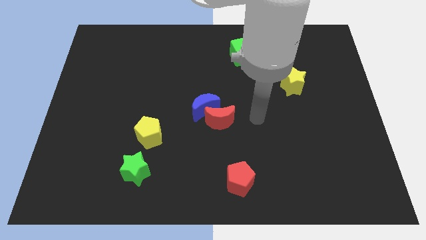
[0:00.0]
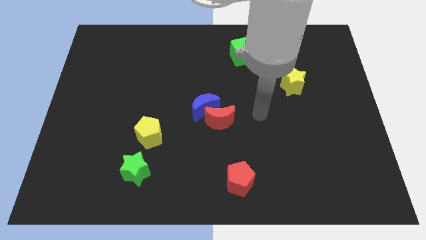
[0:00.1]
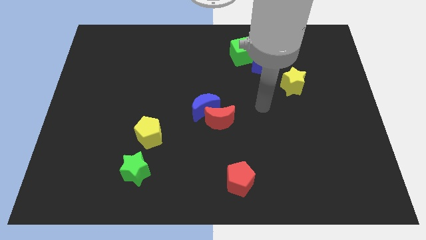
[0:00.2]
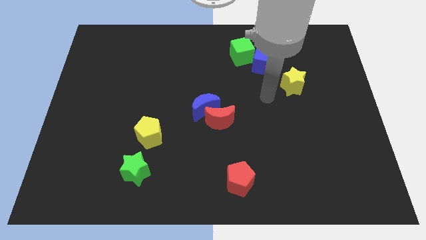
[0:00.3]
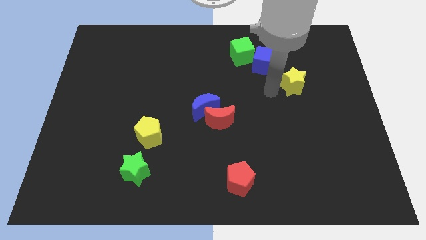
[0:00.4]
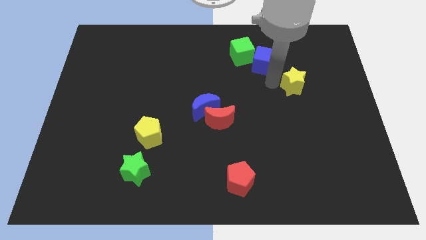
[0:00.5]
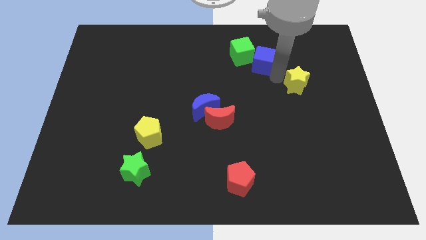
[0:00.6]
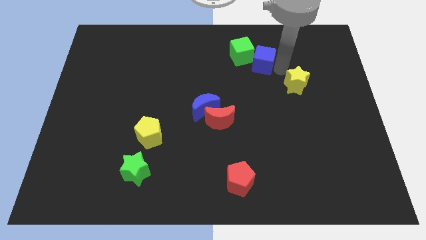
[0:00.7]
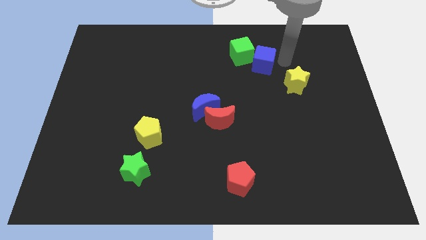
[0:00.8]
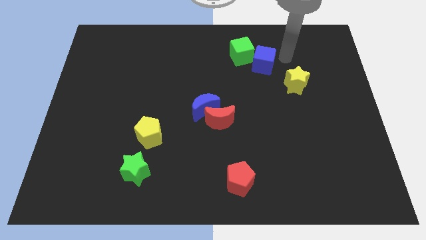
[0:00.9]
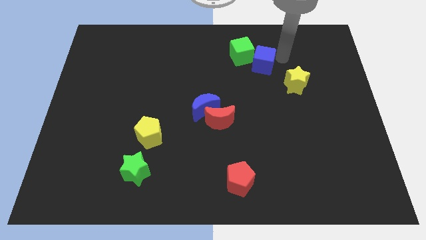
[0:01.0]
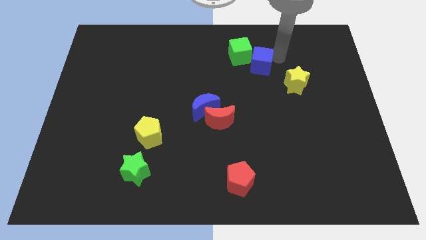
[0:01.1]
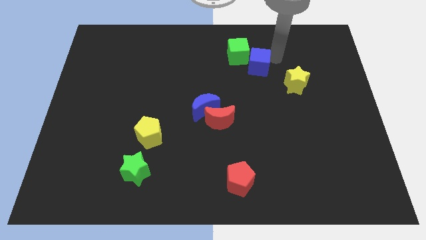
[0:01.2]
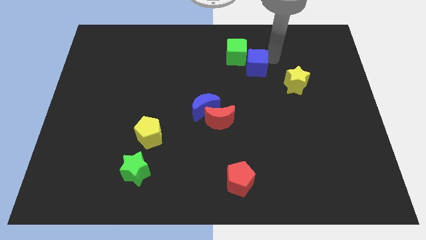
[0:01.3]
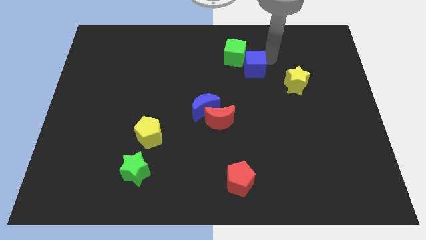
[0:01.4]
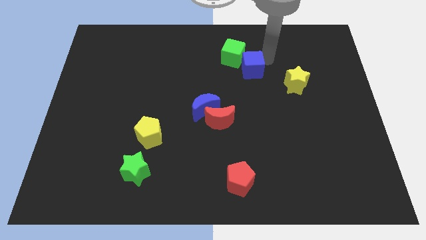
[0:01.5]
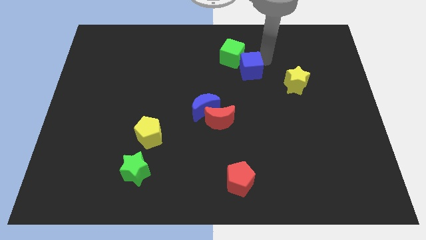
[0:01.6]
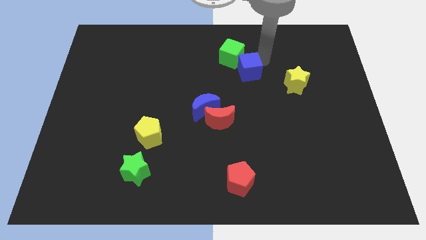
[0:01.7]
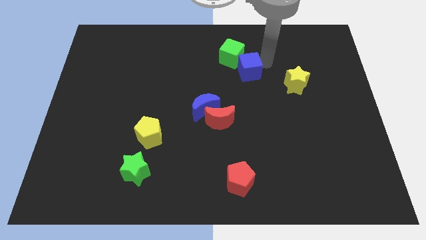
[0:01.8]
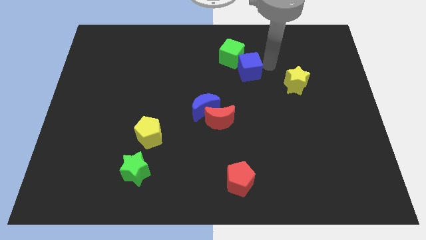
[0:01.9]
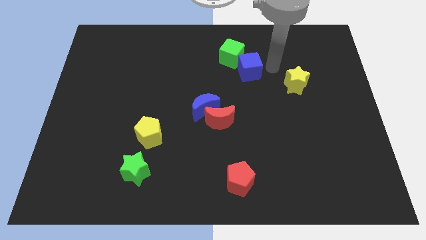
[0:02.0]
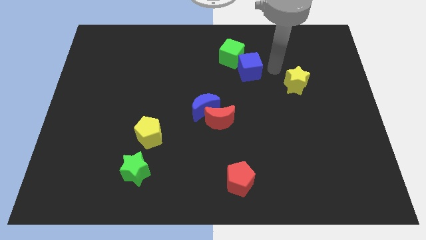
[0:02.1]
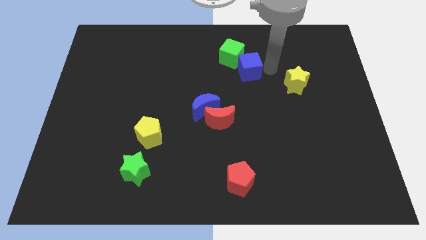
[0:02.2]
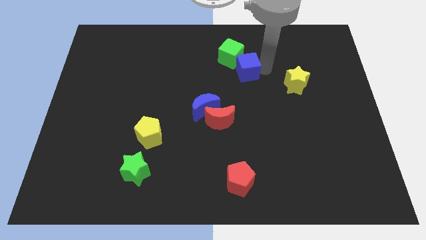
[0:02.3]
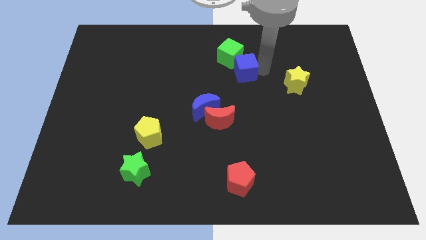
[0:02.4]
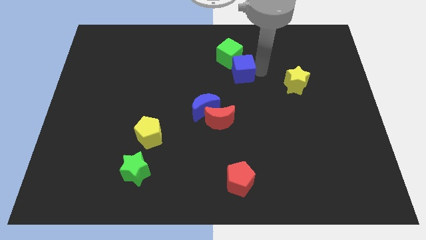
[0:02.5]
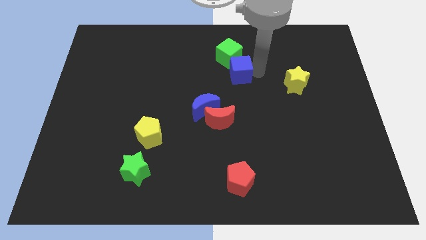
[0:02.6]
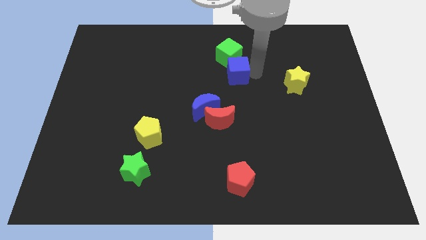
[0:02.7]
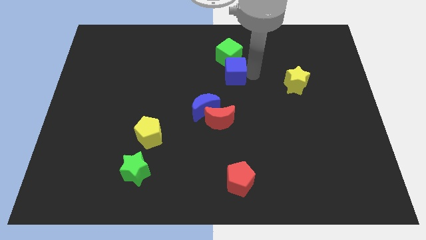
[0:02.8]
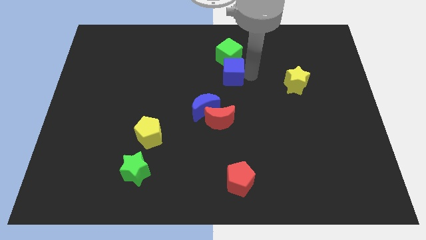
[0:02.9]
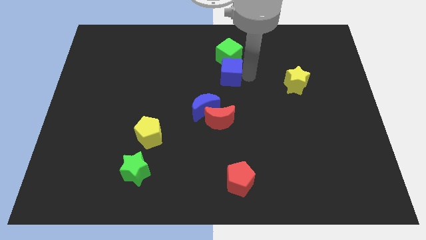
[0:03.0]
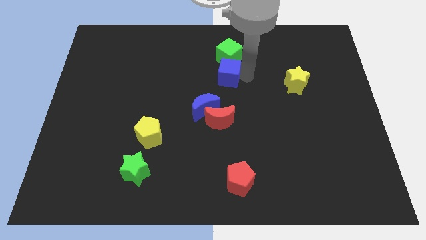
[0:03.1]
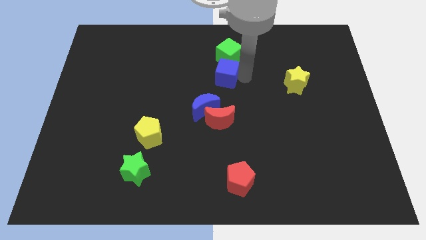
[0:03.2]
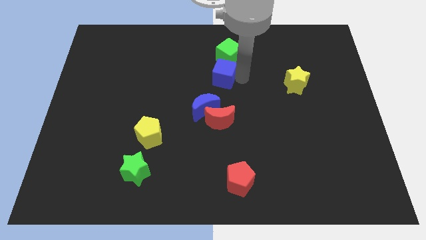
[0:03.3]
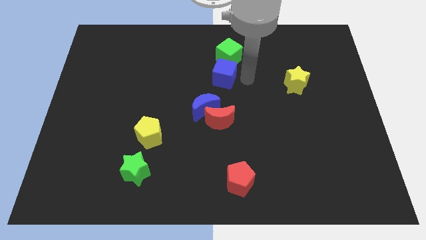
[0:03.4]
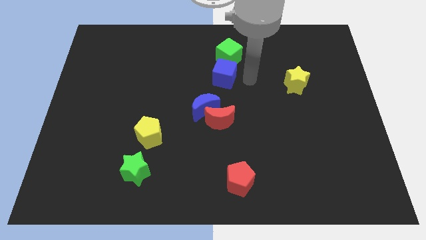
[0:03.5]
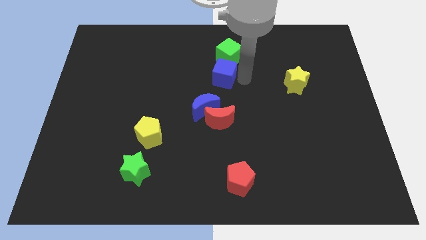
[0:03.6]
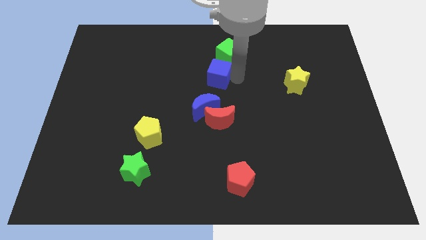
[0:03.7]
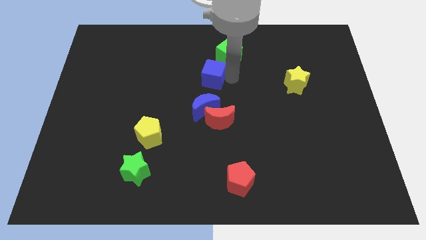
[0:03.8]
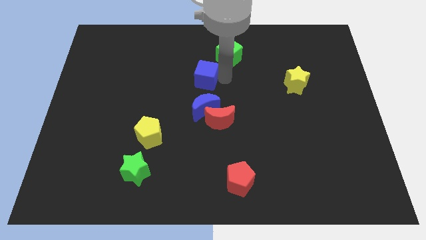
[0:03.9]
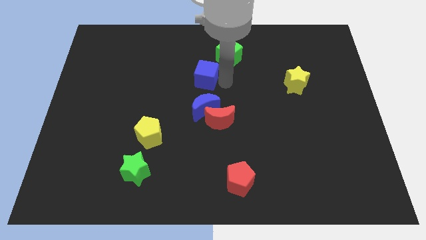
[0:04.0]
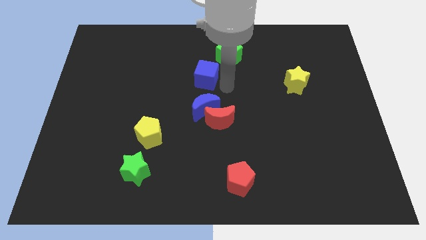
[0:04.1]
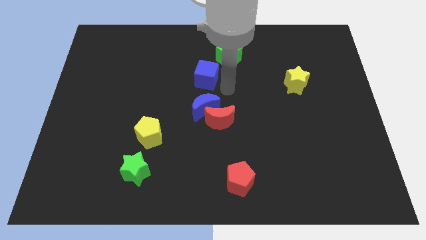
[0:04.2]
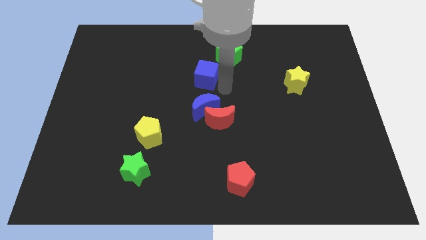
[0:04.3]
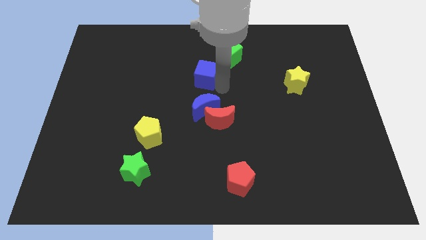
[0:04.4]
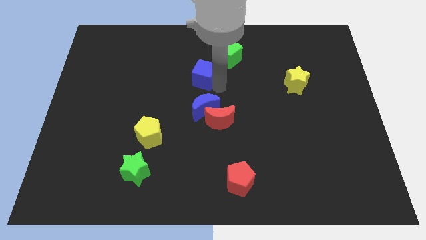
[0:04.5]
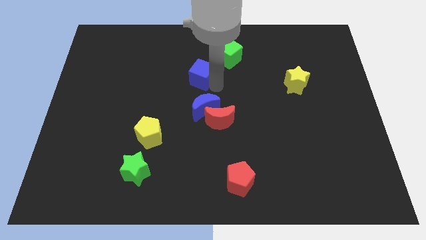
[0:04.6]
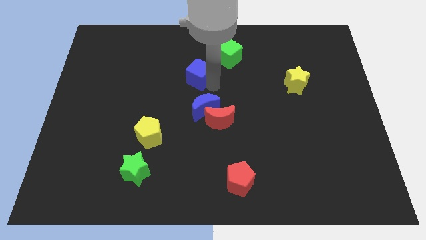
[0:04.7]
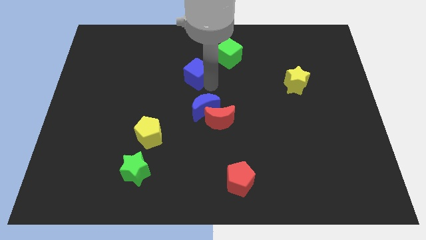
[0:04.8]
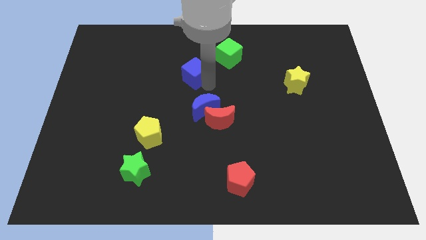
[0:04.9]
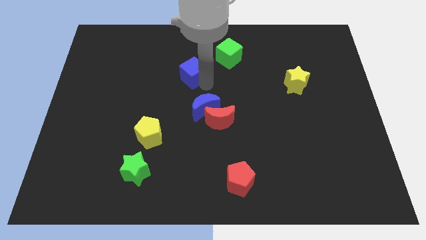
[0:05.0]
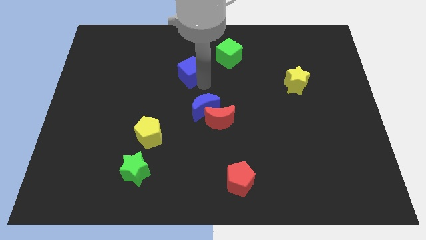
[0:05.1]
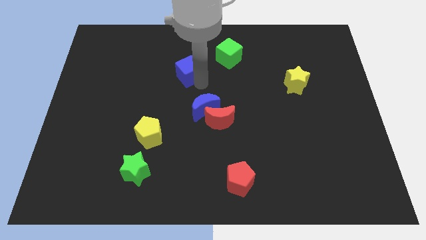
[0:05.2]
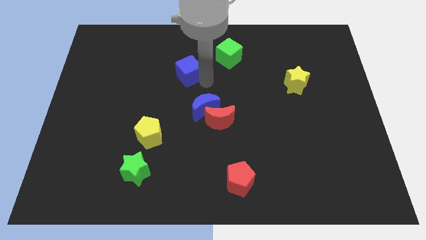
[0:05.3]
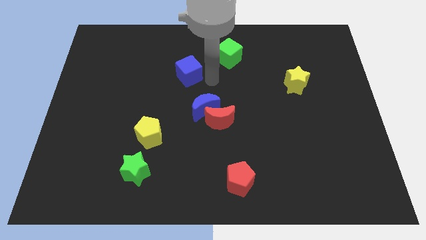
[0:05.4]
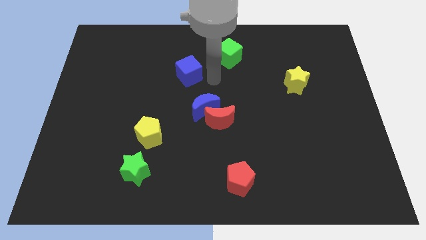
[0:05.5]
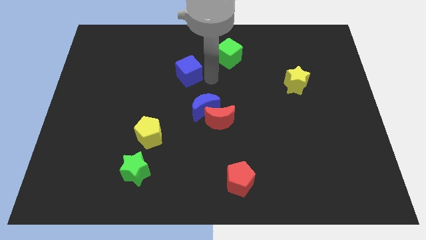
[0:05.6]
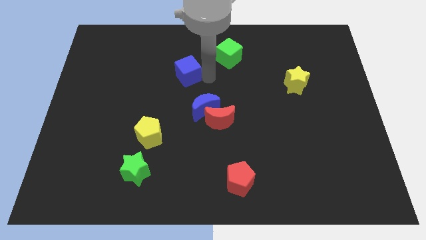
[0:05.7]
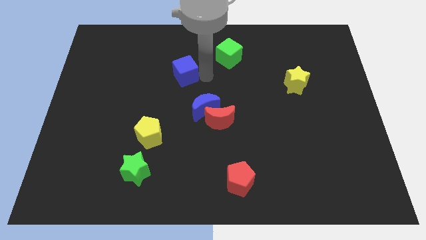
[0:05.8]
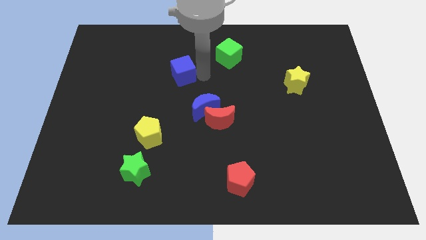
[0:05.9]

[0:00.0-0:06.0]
move the blue cube to the left

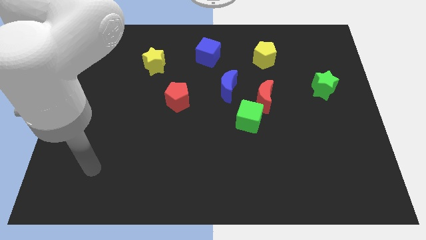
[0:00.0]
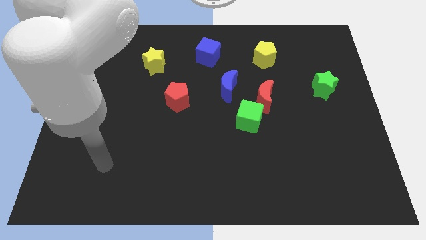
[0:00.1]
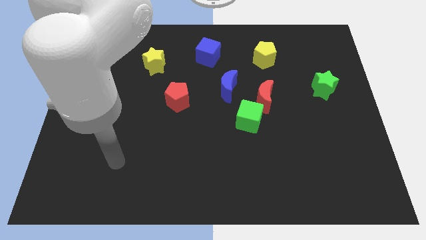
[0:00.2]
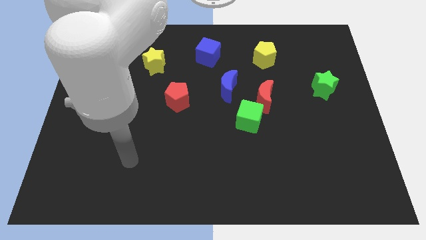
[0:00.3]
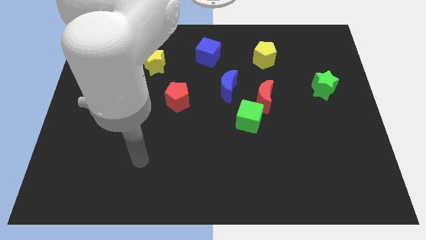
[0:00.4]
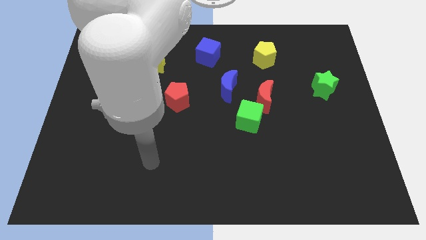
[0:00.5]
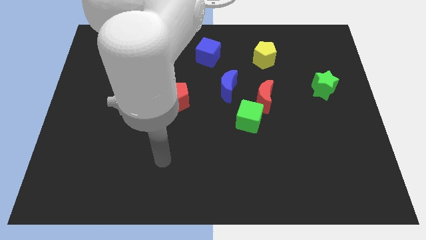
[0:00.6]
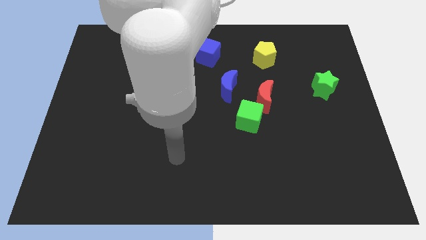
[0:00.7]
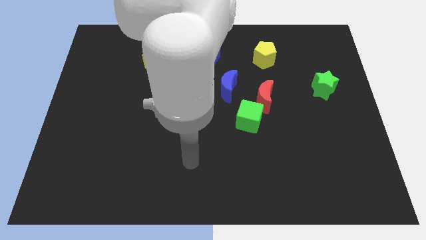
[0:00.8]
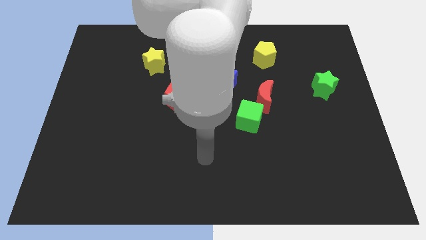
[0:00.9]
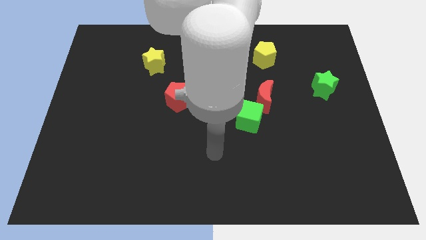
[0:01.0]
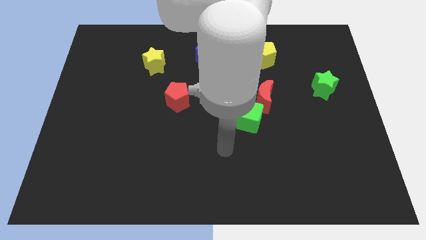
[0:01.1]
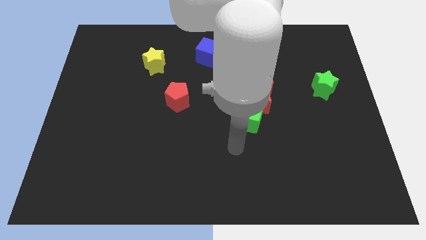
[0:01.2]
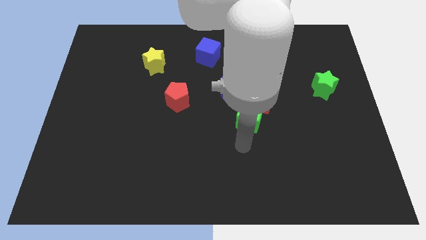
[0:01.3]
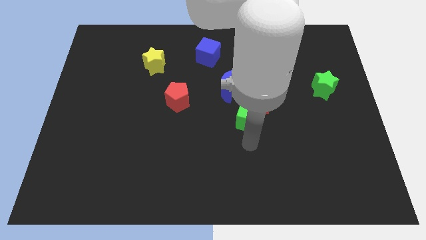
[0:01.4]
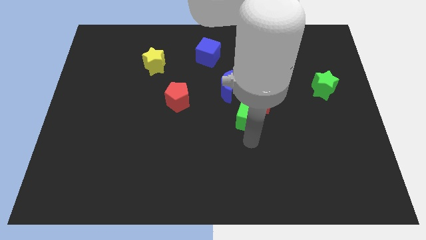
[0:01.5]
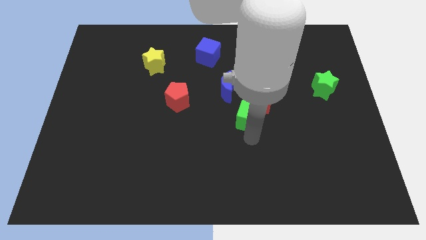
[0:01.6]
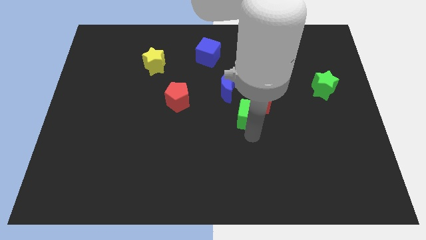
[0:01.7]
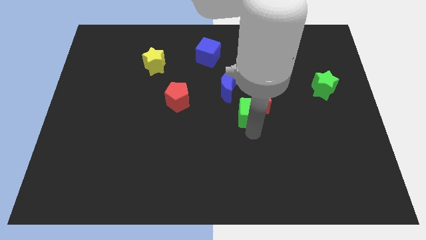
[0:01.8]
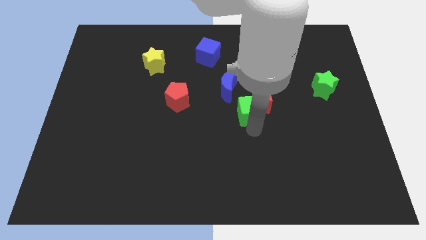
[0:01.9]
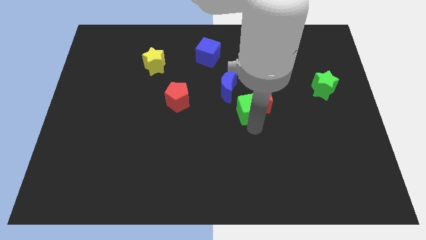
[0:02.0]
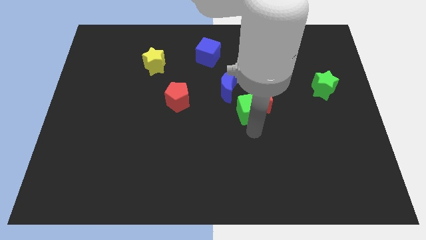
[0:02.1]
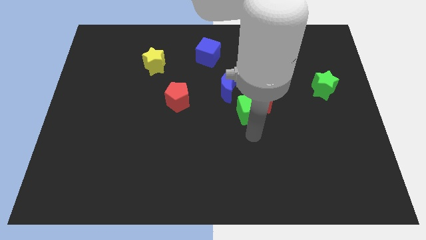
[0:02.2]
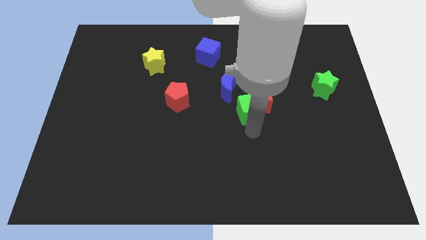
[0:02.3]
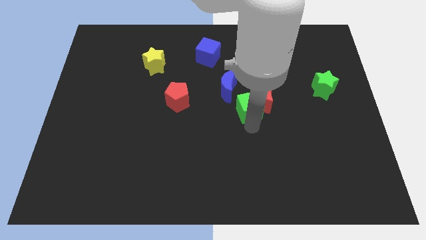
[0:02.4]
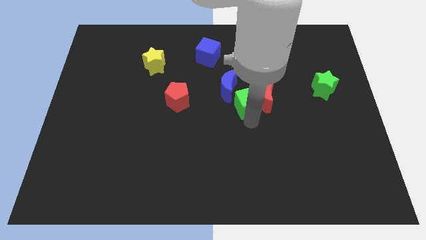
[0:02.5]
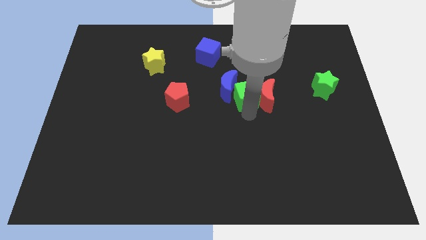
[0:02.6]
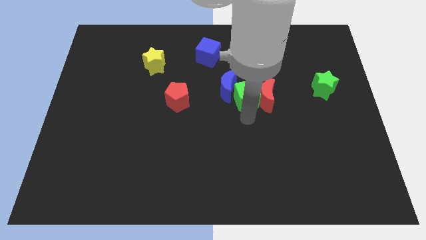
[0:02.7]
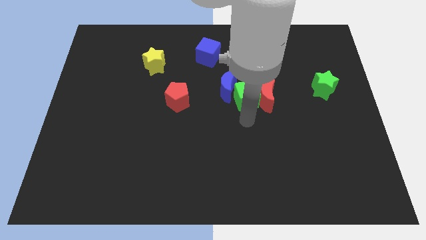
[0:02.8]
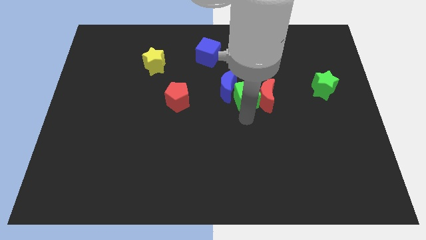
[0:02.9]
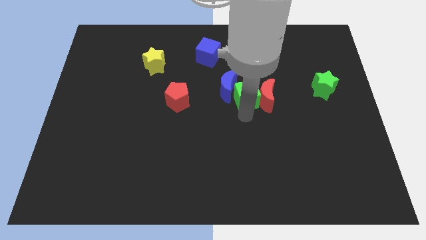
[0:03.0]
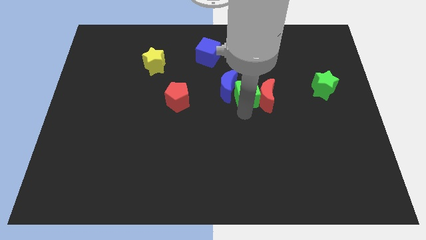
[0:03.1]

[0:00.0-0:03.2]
slightly move the green cube upwards
